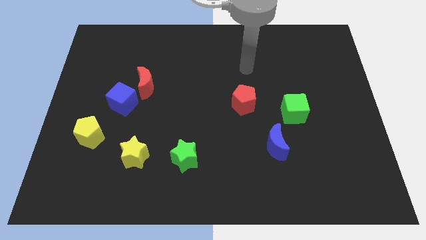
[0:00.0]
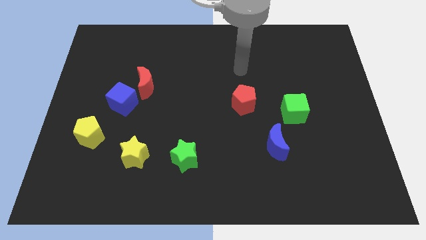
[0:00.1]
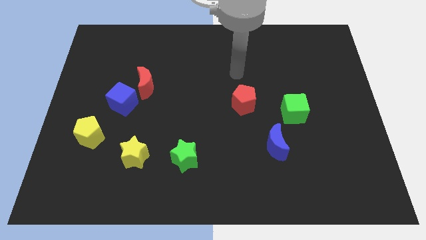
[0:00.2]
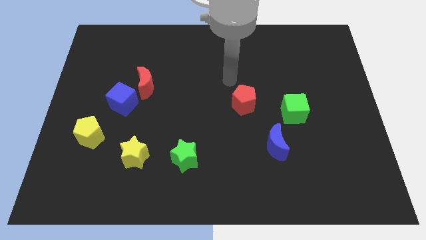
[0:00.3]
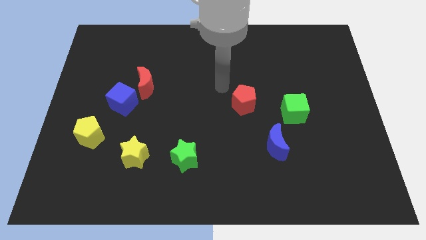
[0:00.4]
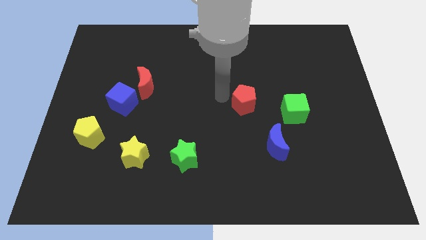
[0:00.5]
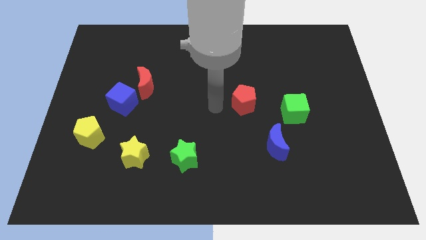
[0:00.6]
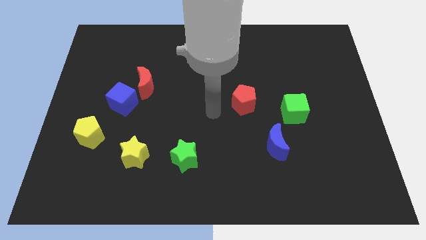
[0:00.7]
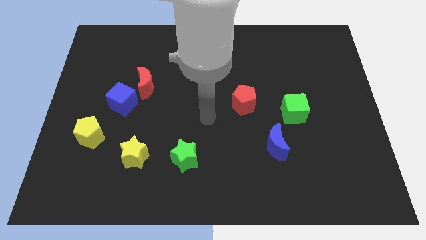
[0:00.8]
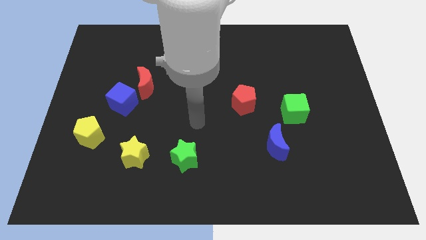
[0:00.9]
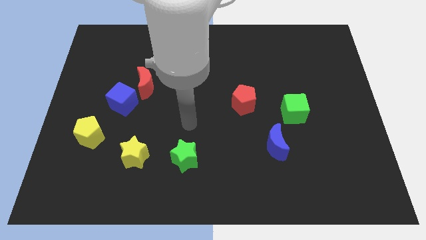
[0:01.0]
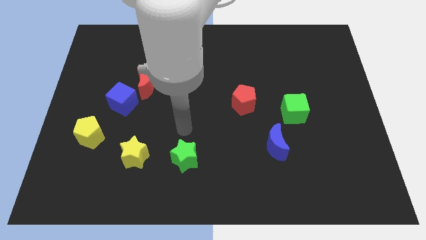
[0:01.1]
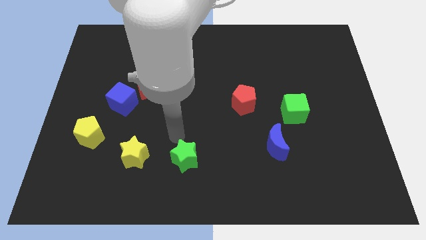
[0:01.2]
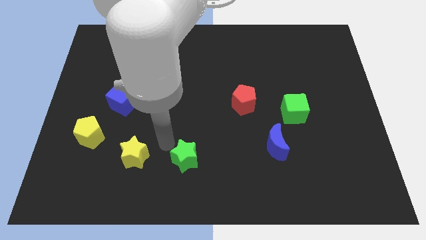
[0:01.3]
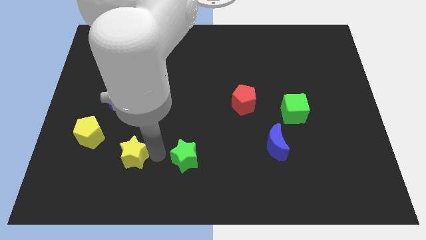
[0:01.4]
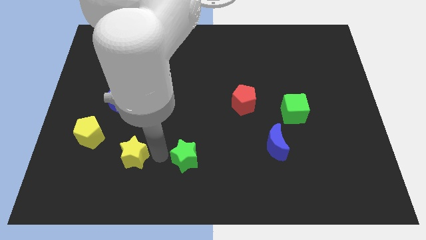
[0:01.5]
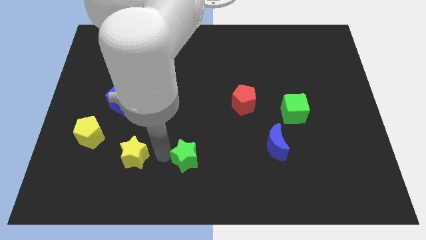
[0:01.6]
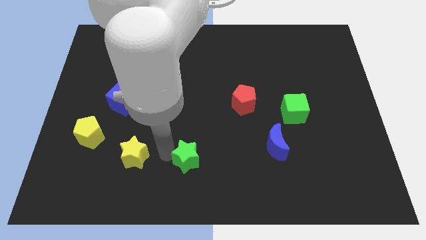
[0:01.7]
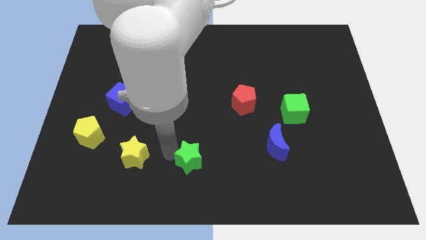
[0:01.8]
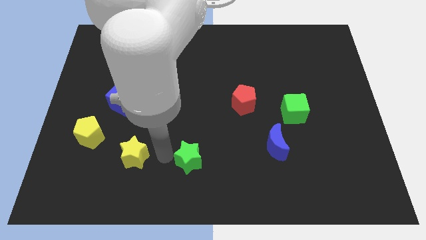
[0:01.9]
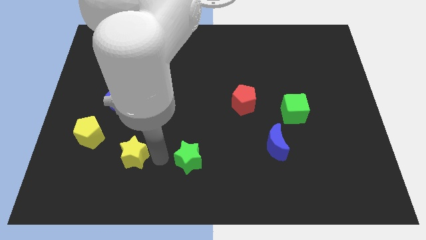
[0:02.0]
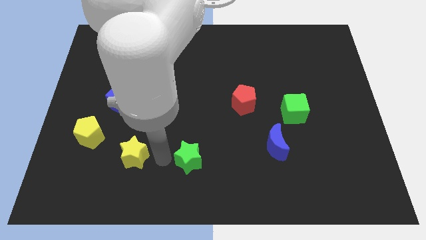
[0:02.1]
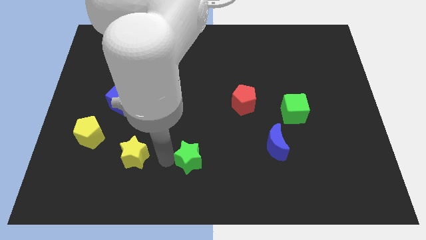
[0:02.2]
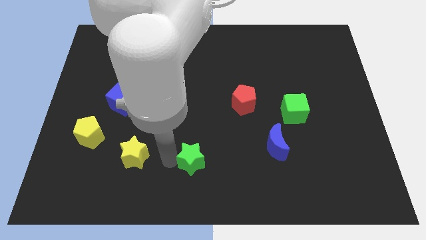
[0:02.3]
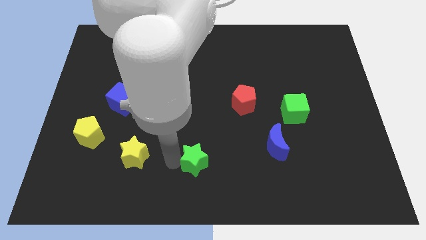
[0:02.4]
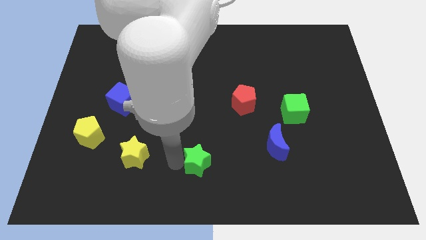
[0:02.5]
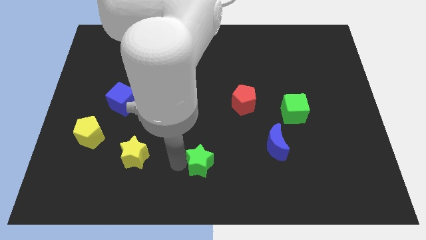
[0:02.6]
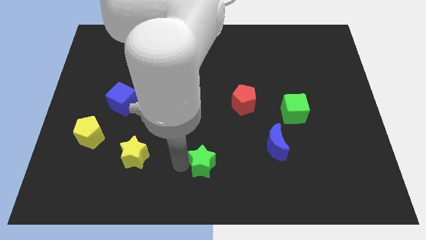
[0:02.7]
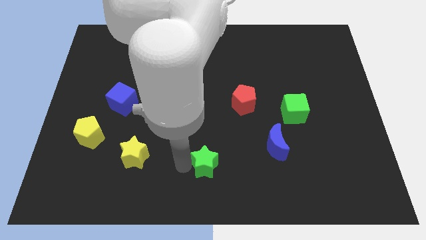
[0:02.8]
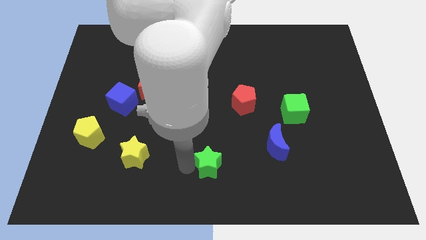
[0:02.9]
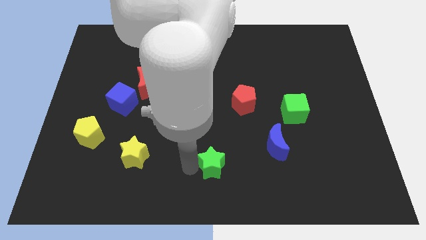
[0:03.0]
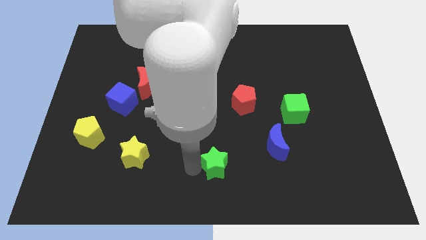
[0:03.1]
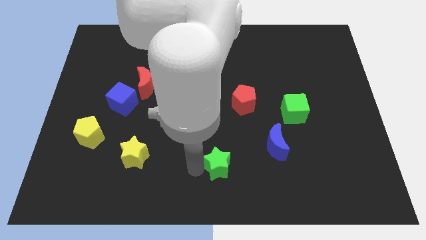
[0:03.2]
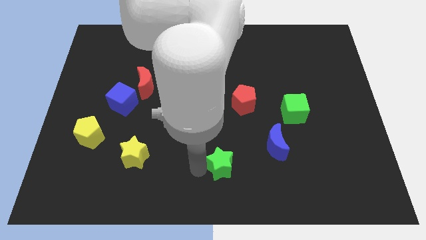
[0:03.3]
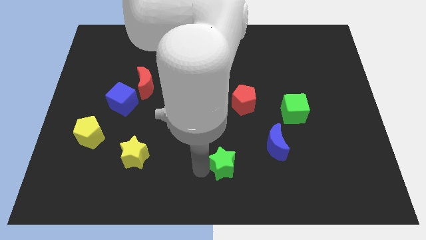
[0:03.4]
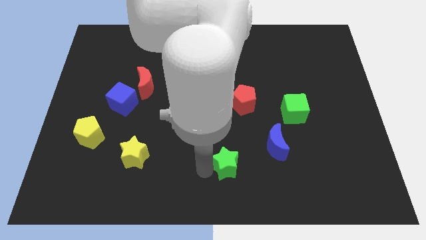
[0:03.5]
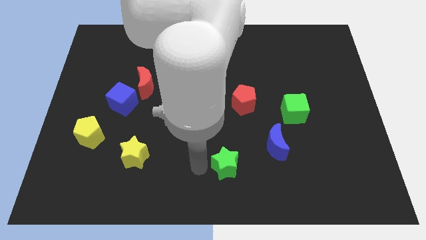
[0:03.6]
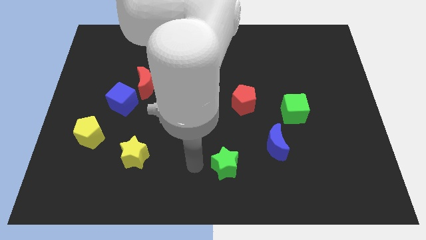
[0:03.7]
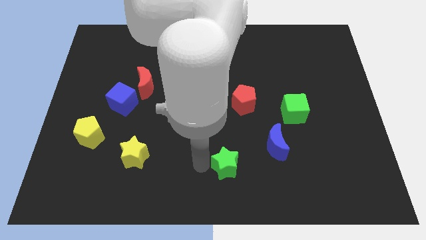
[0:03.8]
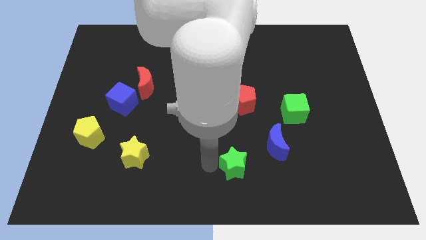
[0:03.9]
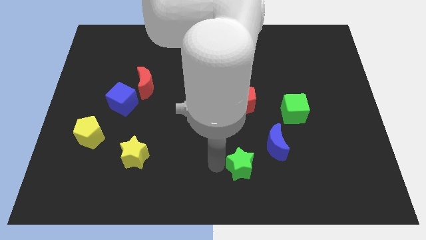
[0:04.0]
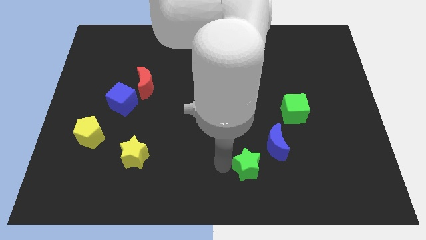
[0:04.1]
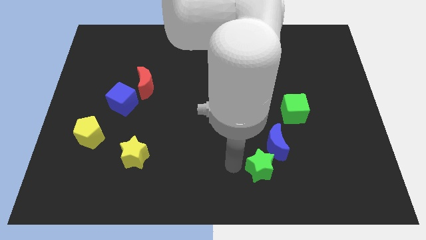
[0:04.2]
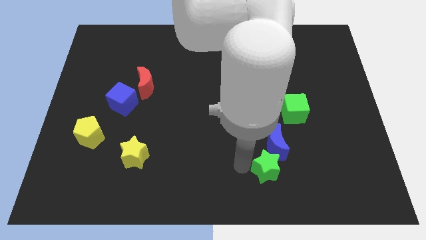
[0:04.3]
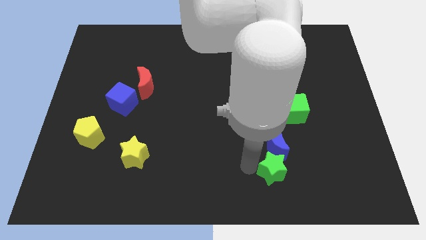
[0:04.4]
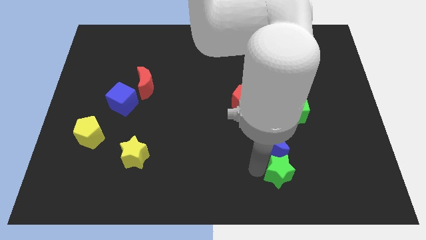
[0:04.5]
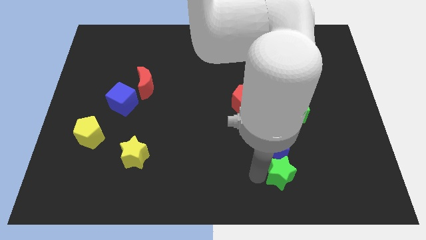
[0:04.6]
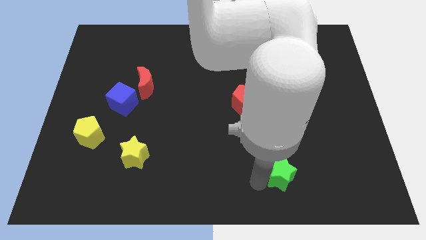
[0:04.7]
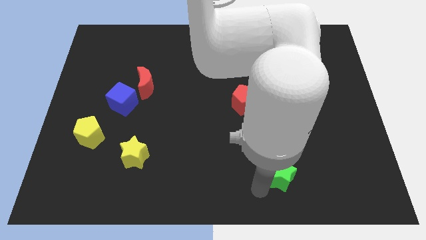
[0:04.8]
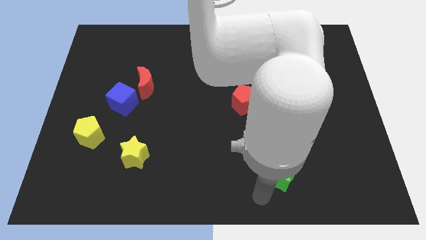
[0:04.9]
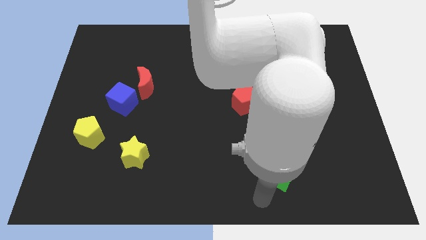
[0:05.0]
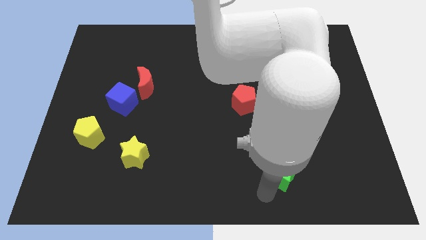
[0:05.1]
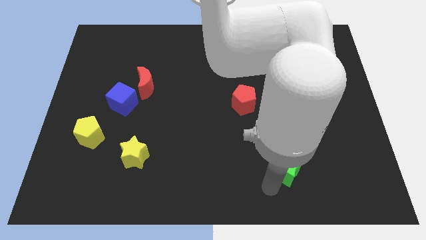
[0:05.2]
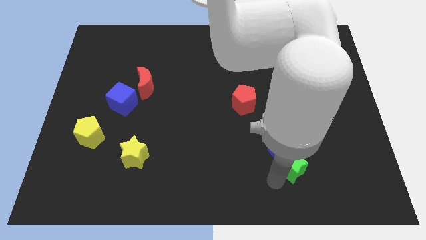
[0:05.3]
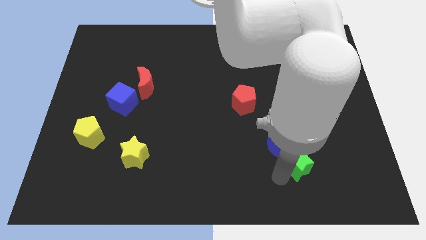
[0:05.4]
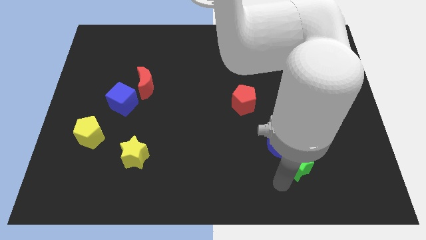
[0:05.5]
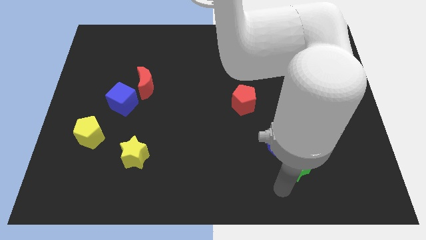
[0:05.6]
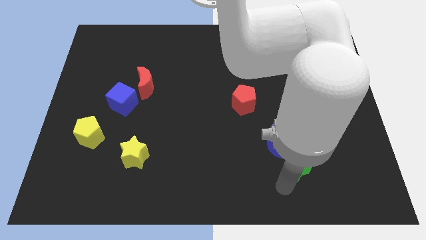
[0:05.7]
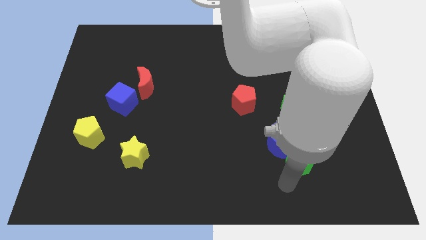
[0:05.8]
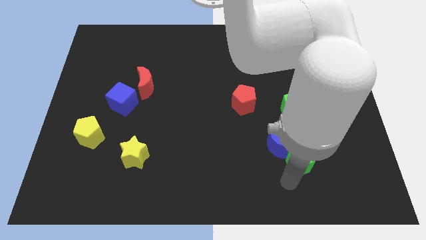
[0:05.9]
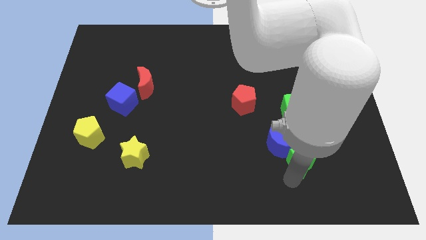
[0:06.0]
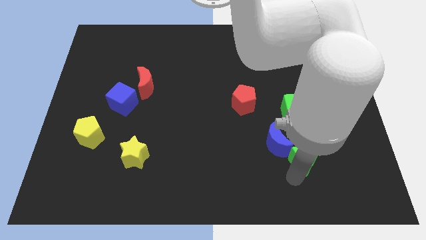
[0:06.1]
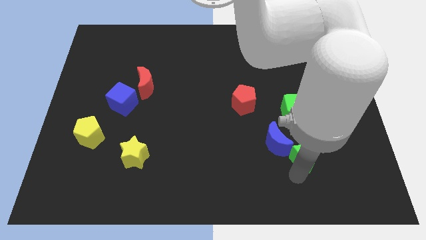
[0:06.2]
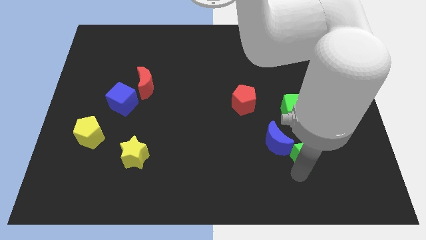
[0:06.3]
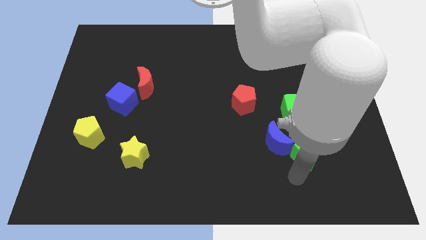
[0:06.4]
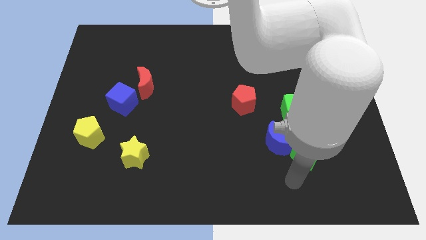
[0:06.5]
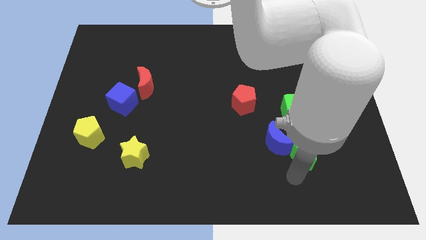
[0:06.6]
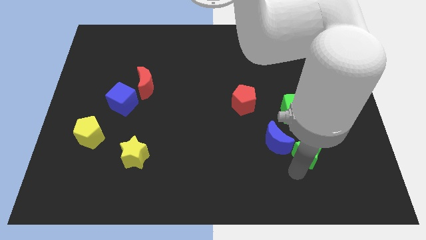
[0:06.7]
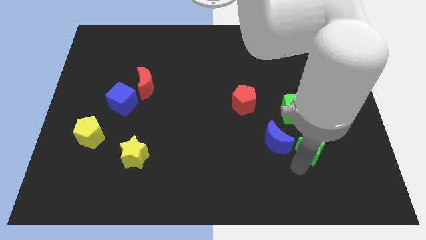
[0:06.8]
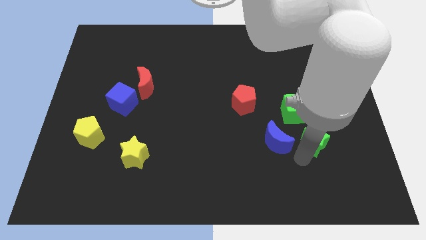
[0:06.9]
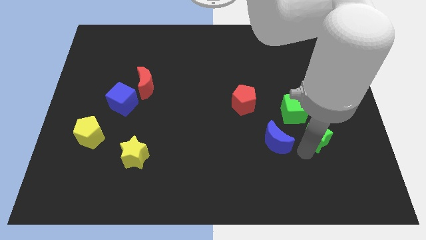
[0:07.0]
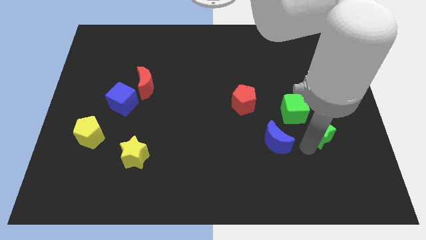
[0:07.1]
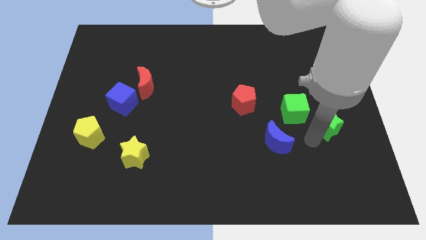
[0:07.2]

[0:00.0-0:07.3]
slide the green star just right of the green cube
